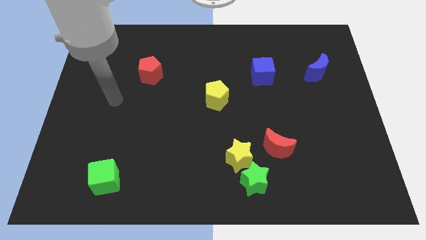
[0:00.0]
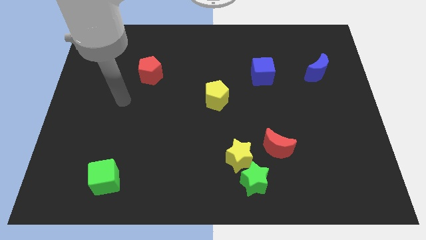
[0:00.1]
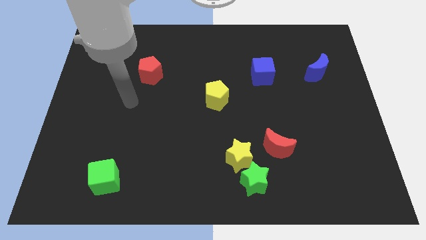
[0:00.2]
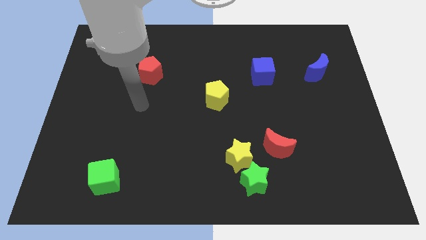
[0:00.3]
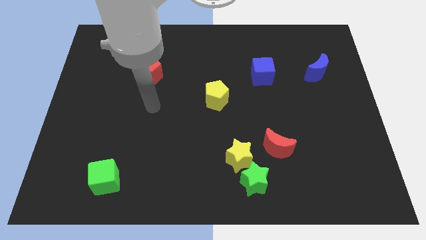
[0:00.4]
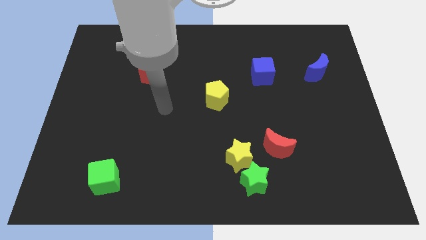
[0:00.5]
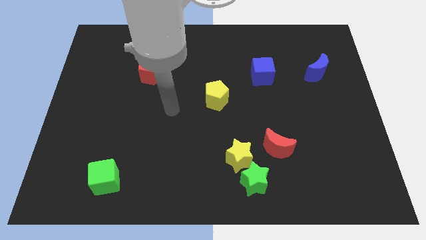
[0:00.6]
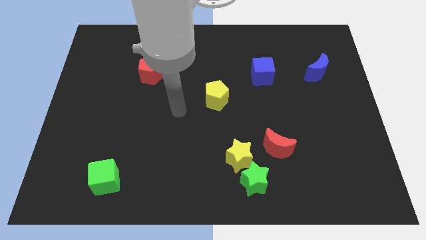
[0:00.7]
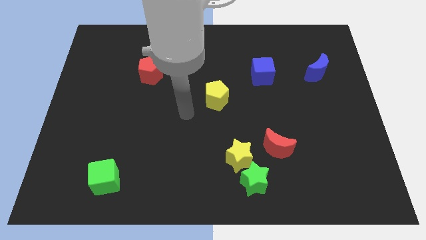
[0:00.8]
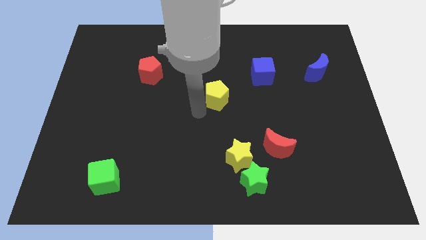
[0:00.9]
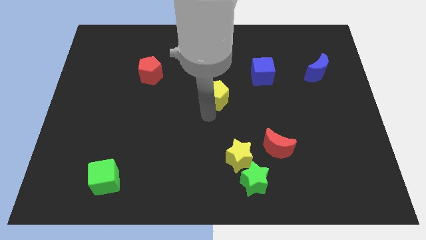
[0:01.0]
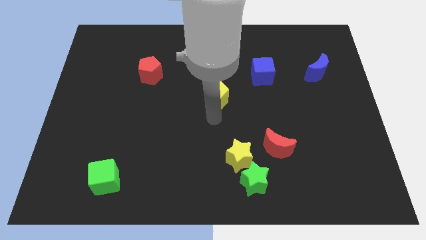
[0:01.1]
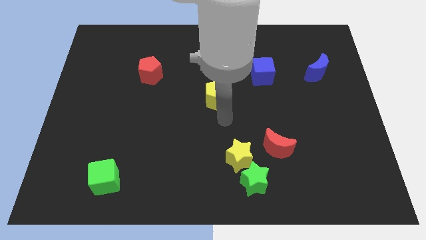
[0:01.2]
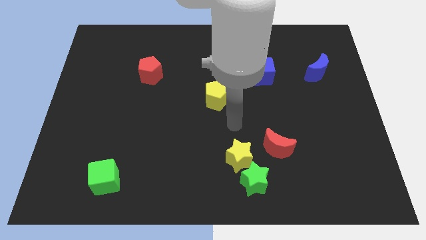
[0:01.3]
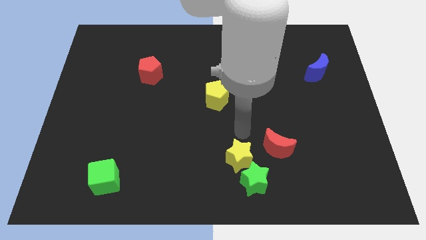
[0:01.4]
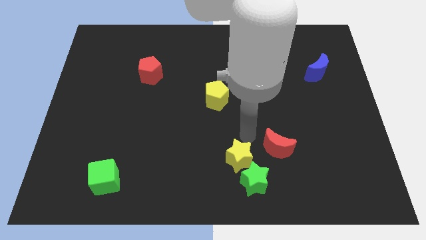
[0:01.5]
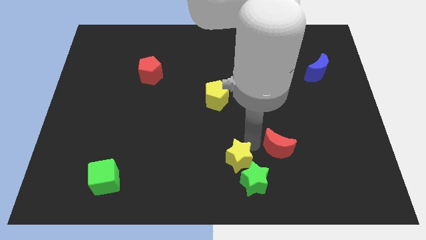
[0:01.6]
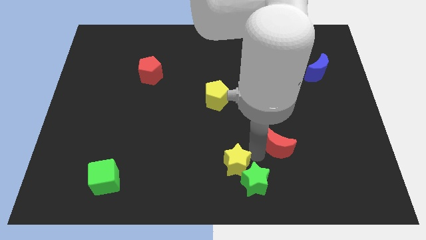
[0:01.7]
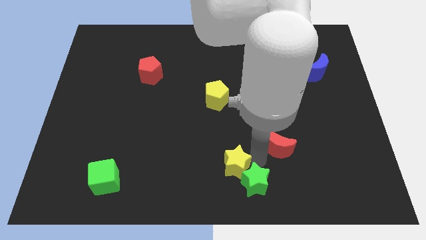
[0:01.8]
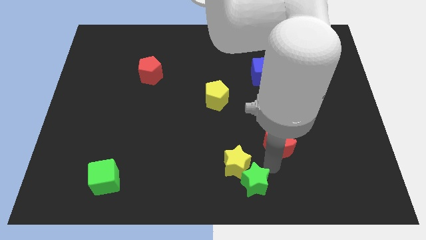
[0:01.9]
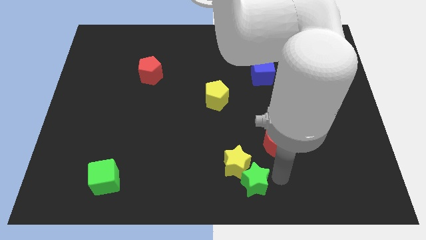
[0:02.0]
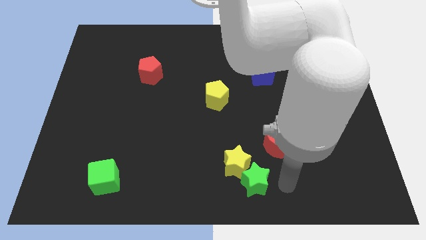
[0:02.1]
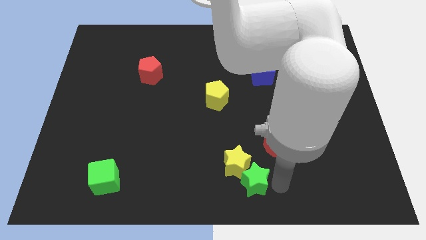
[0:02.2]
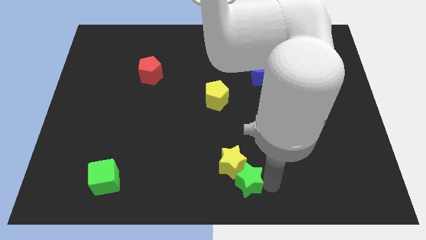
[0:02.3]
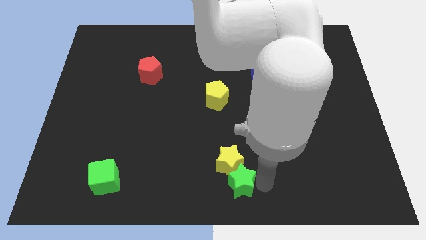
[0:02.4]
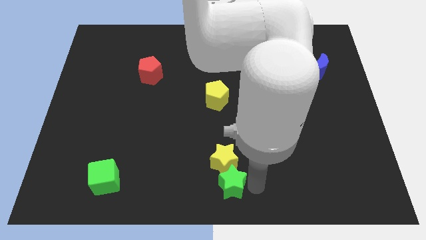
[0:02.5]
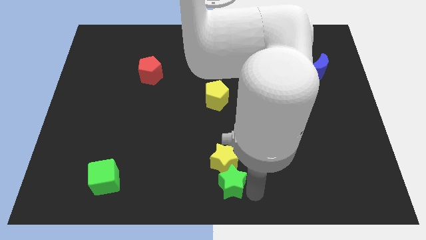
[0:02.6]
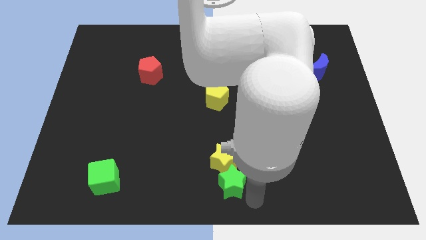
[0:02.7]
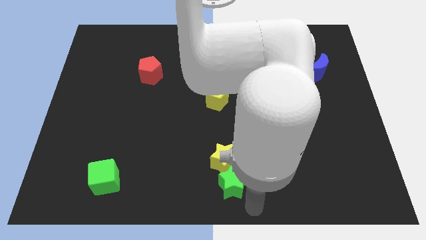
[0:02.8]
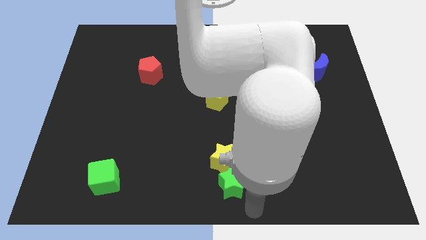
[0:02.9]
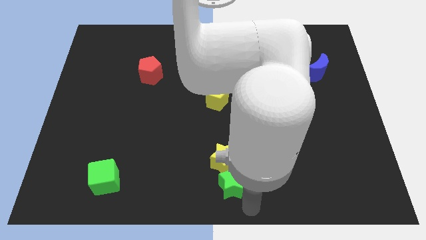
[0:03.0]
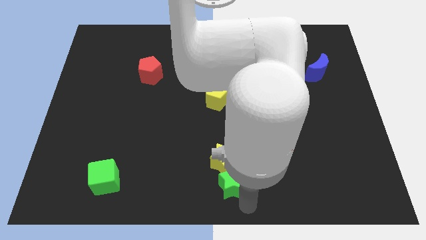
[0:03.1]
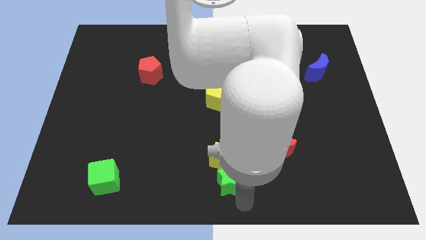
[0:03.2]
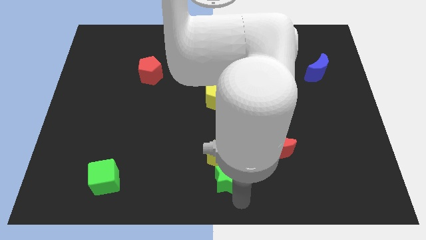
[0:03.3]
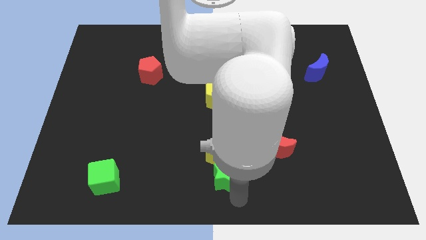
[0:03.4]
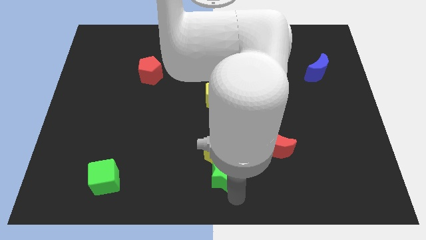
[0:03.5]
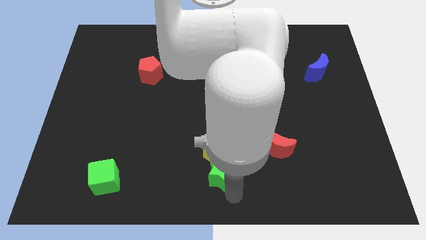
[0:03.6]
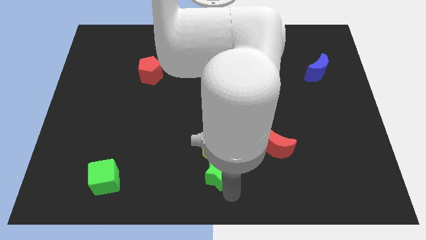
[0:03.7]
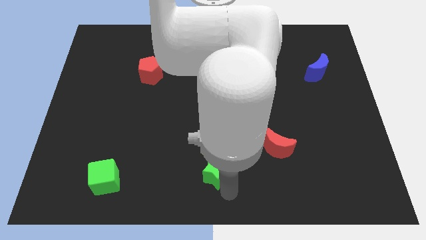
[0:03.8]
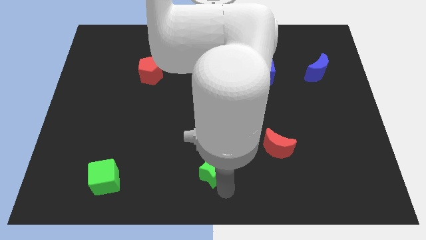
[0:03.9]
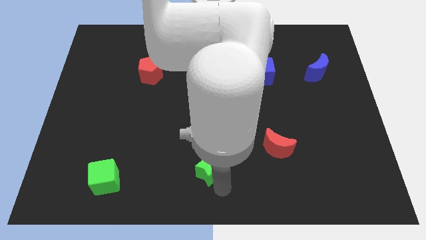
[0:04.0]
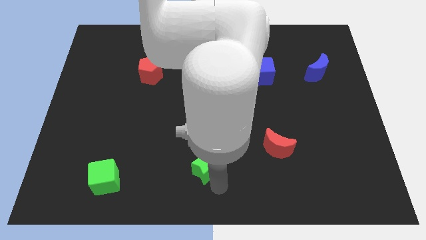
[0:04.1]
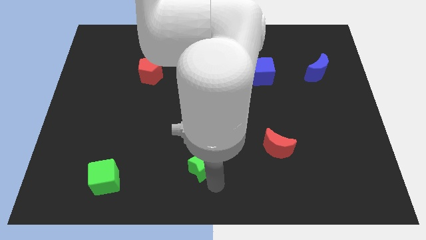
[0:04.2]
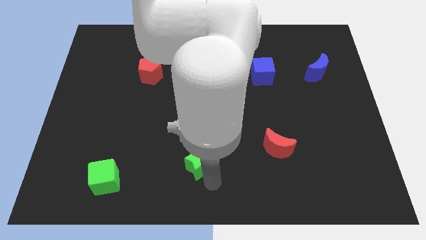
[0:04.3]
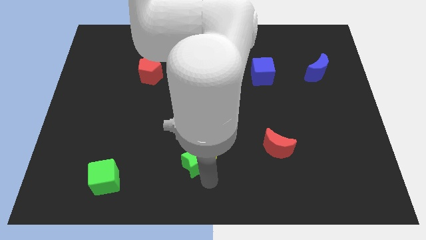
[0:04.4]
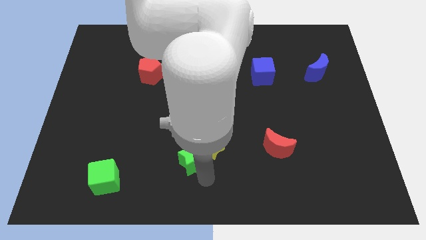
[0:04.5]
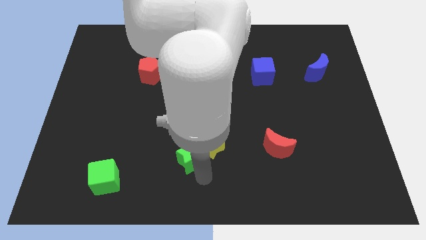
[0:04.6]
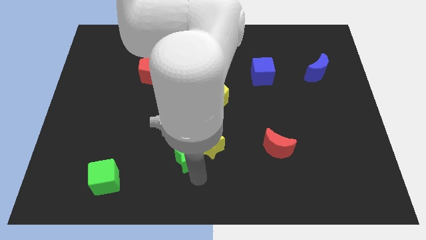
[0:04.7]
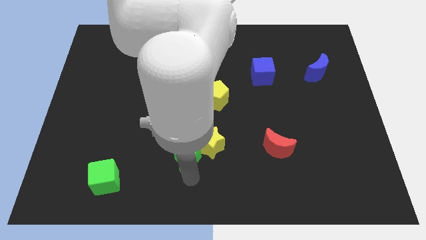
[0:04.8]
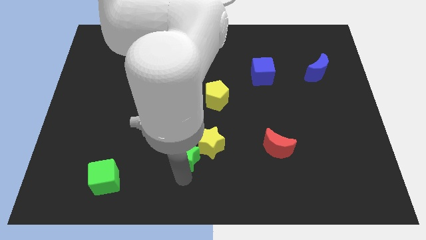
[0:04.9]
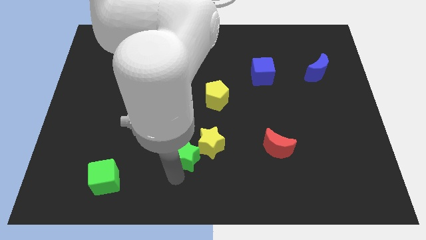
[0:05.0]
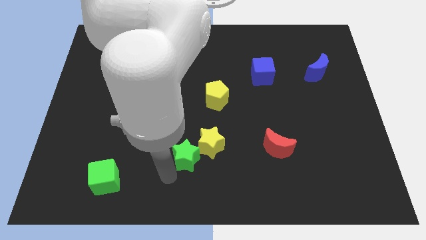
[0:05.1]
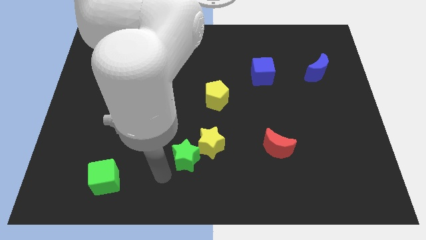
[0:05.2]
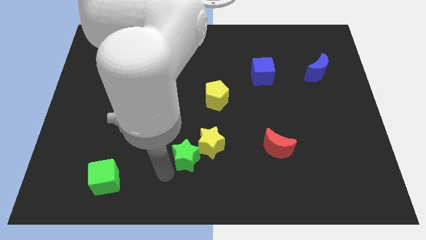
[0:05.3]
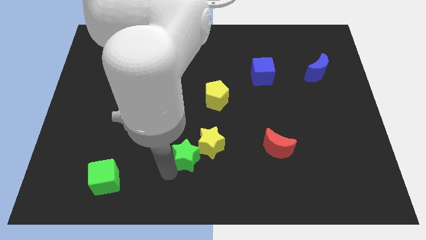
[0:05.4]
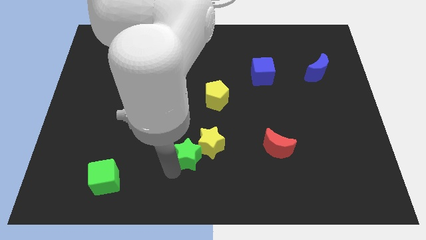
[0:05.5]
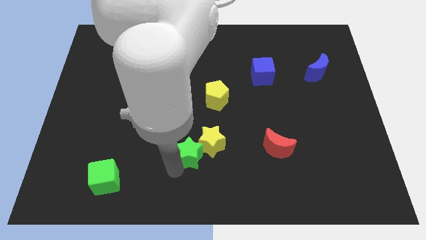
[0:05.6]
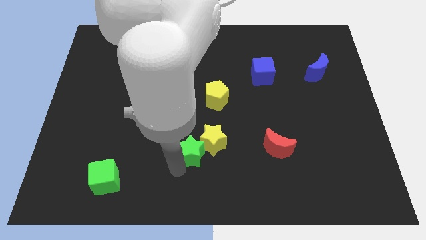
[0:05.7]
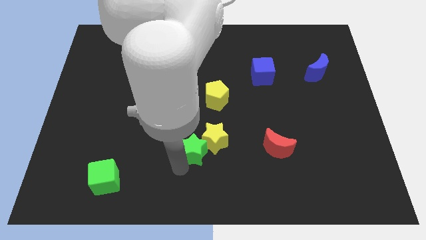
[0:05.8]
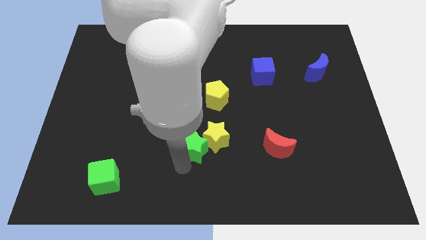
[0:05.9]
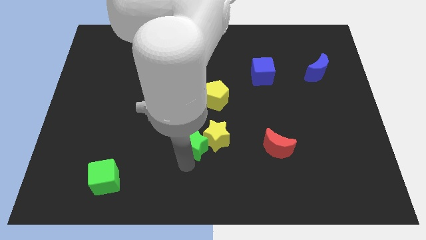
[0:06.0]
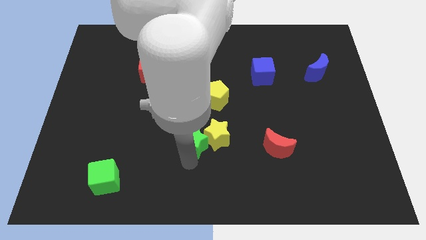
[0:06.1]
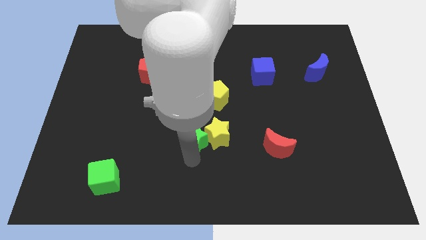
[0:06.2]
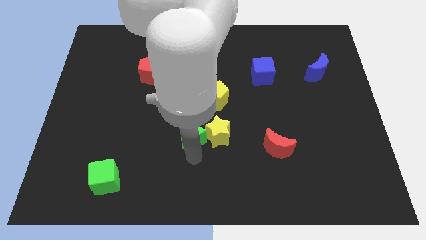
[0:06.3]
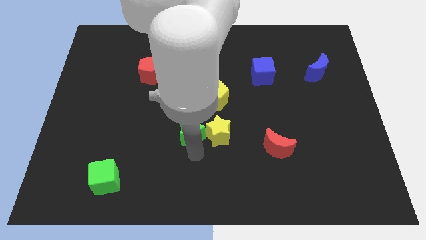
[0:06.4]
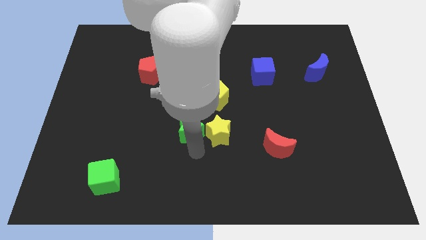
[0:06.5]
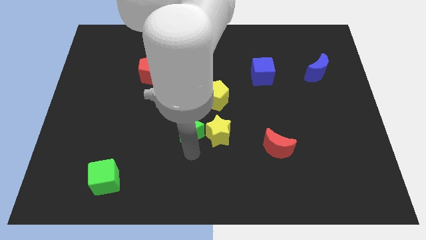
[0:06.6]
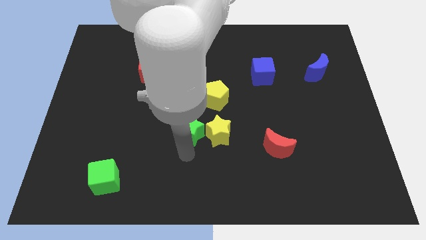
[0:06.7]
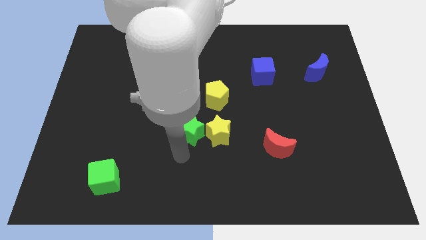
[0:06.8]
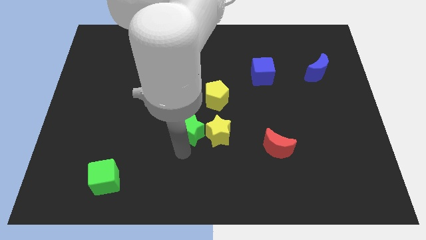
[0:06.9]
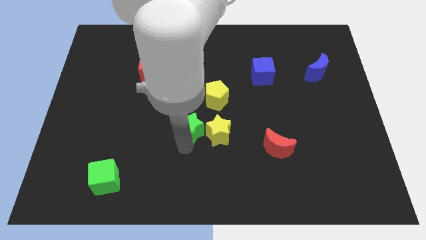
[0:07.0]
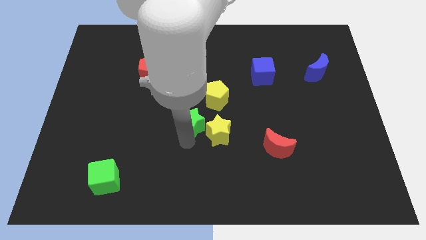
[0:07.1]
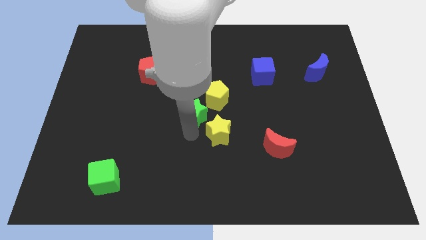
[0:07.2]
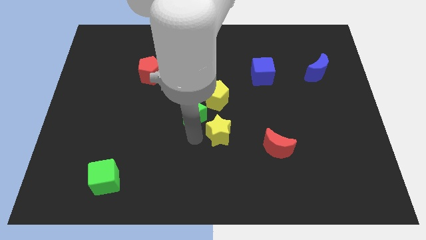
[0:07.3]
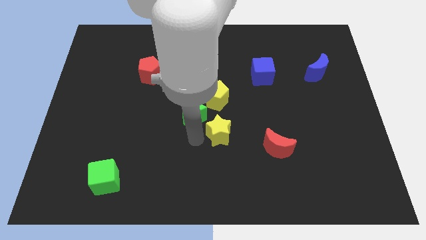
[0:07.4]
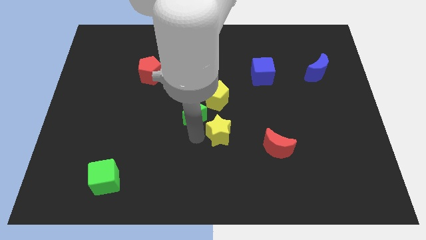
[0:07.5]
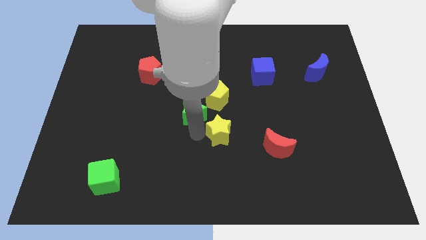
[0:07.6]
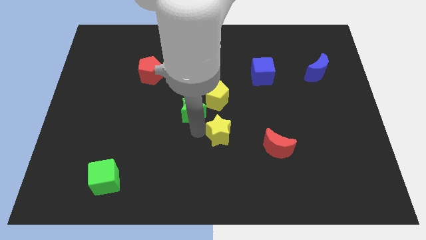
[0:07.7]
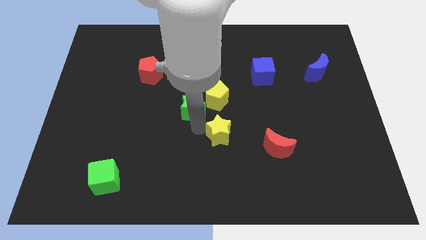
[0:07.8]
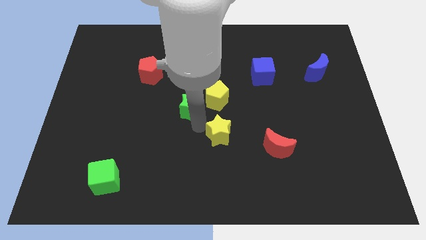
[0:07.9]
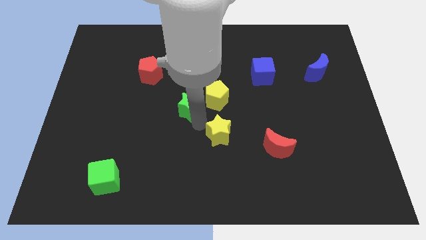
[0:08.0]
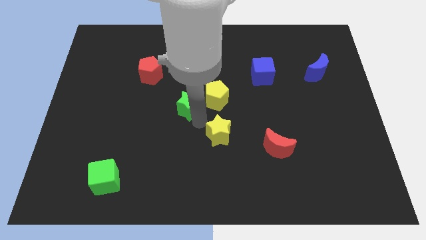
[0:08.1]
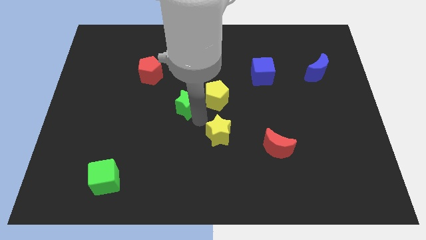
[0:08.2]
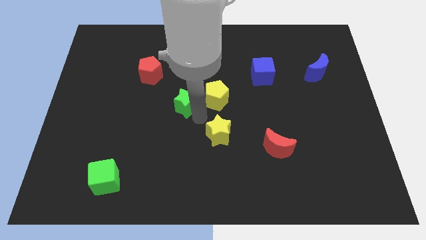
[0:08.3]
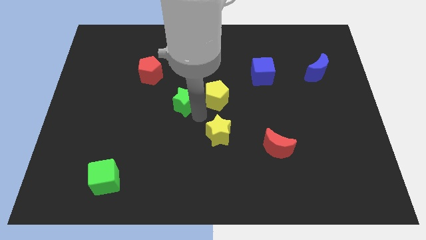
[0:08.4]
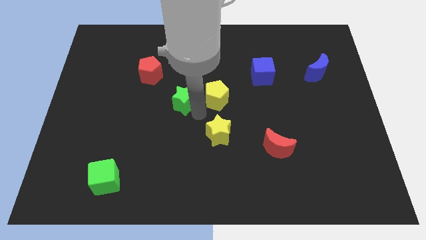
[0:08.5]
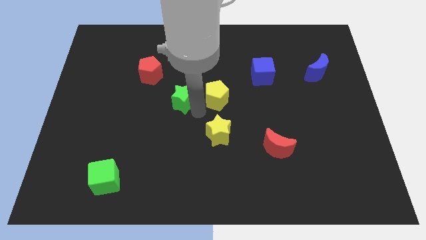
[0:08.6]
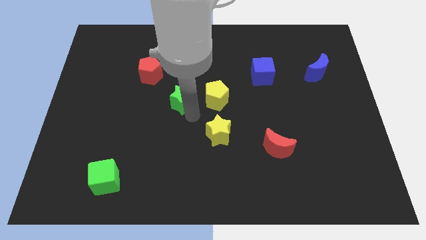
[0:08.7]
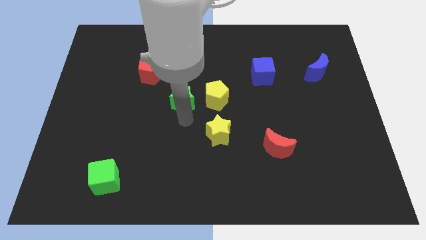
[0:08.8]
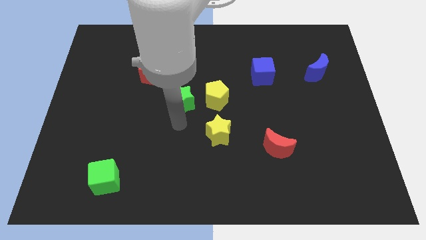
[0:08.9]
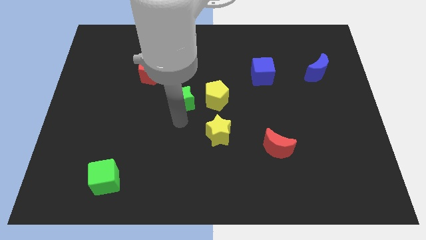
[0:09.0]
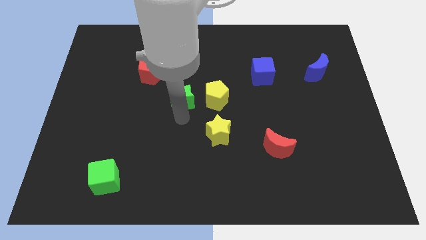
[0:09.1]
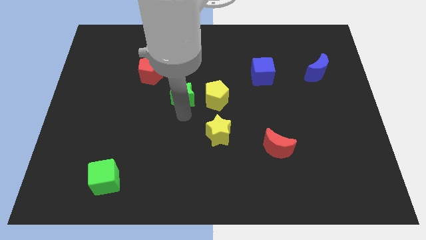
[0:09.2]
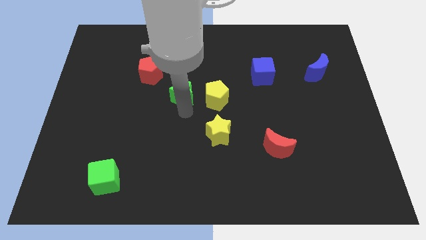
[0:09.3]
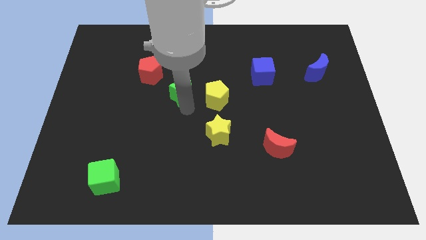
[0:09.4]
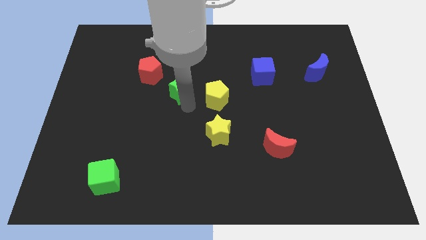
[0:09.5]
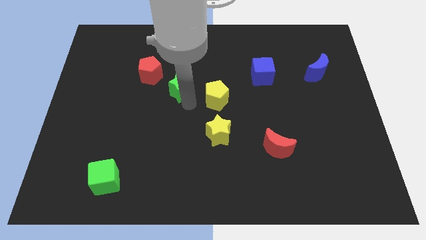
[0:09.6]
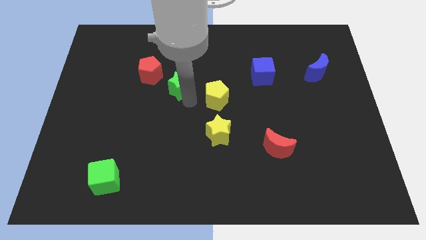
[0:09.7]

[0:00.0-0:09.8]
slide the green star to the right of the red pentagon
